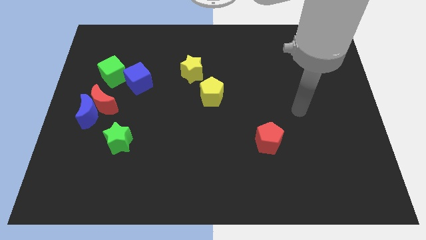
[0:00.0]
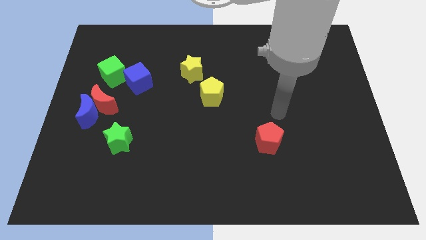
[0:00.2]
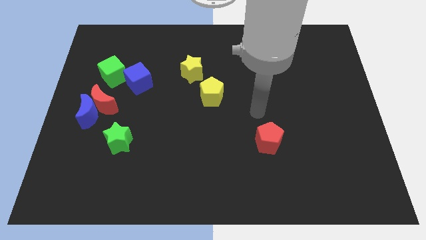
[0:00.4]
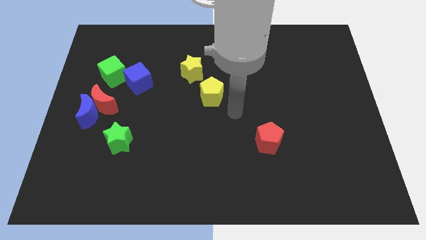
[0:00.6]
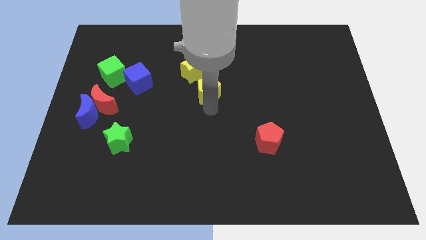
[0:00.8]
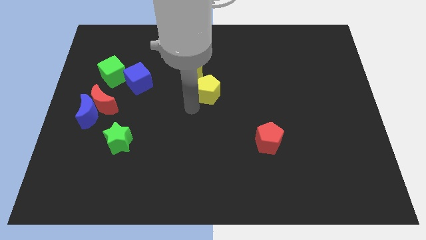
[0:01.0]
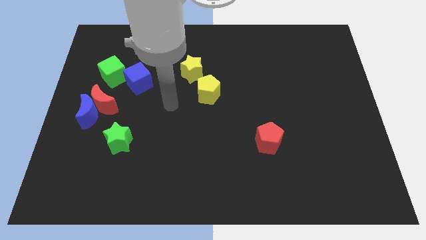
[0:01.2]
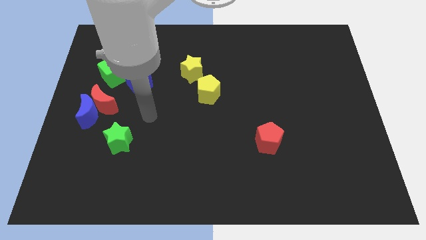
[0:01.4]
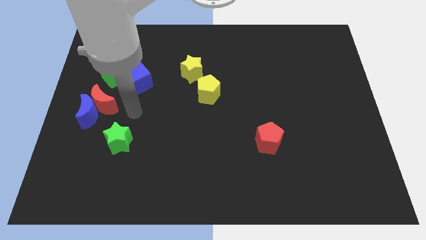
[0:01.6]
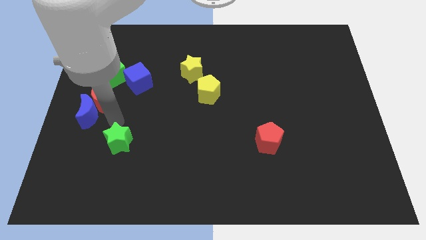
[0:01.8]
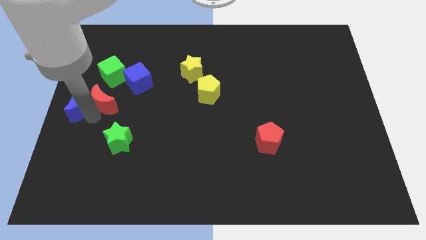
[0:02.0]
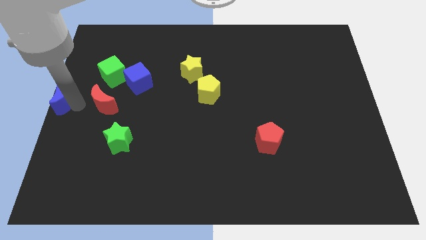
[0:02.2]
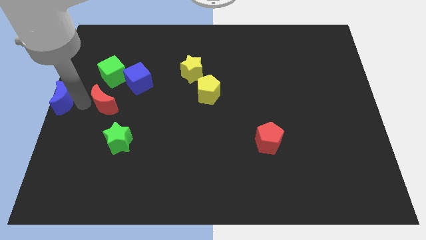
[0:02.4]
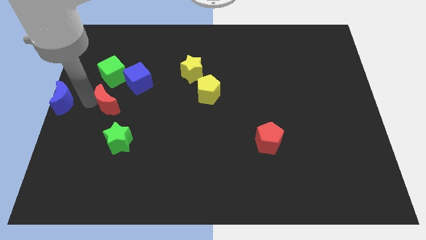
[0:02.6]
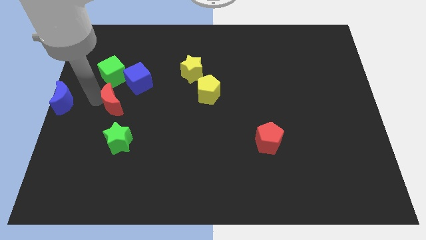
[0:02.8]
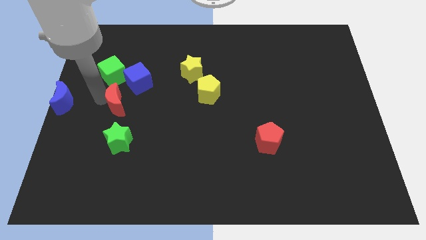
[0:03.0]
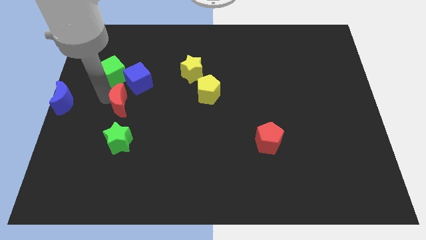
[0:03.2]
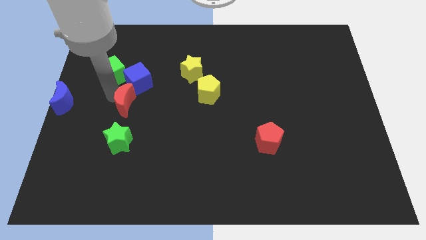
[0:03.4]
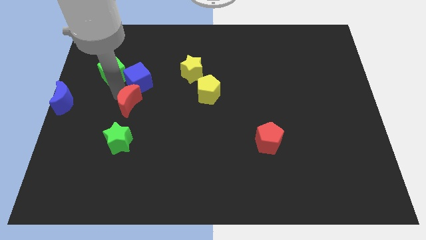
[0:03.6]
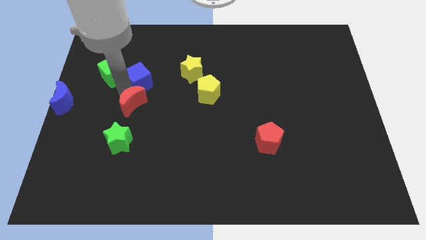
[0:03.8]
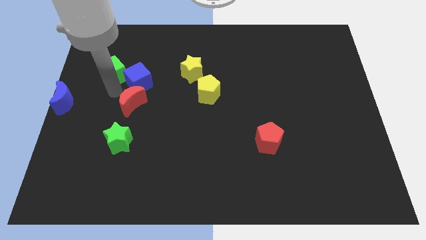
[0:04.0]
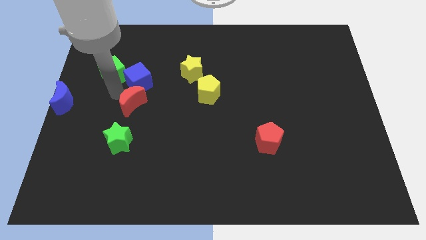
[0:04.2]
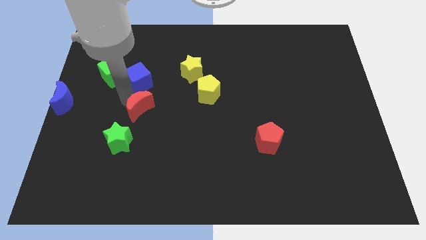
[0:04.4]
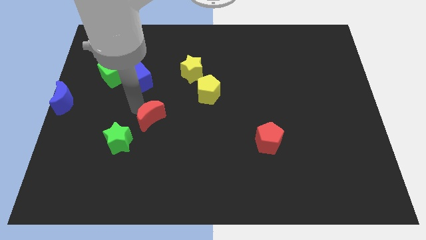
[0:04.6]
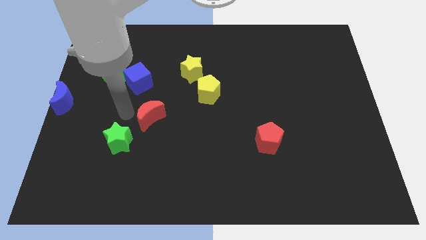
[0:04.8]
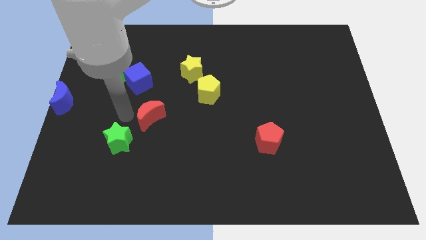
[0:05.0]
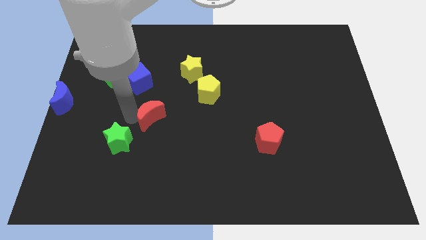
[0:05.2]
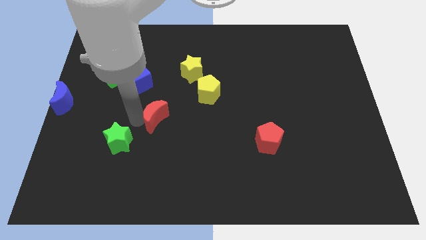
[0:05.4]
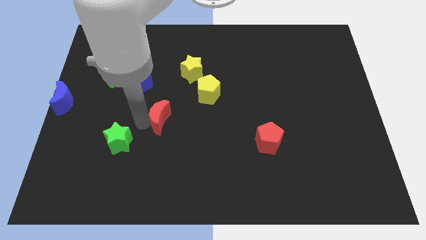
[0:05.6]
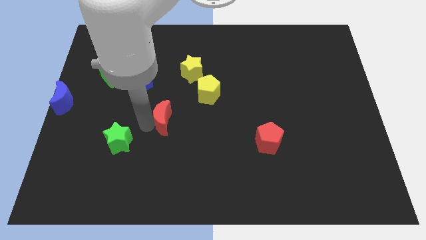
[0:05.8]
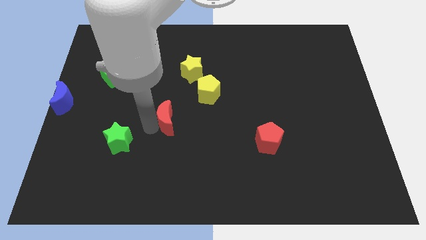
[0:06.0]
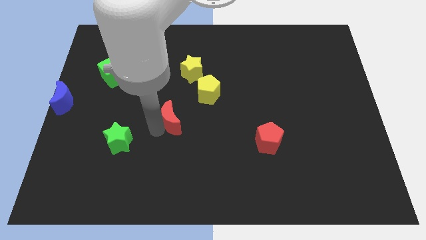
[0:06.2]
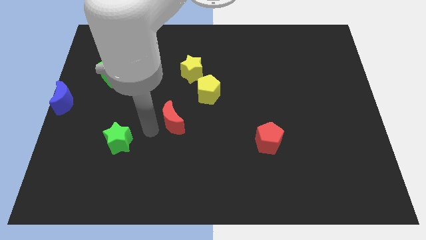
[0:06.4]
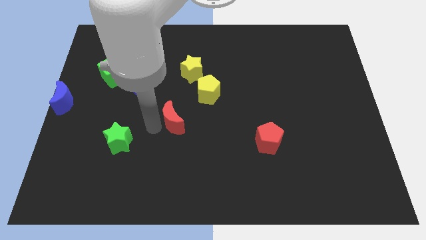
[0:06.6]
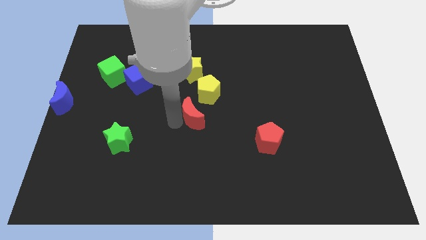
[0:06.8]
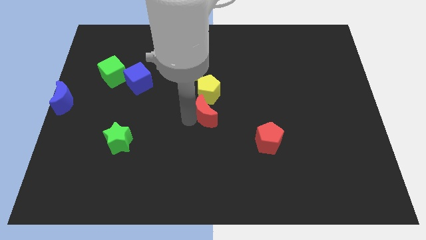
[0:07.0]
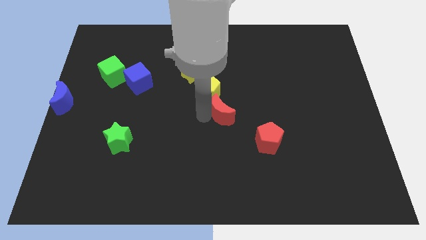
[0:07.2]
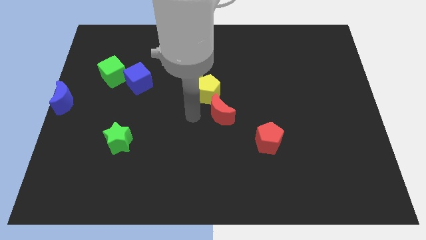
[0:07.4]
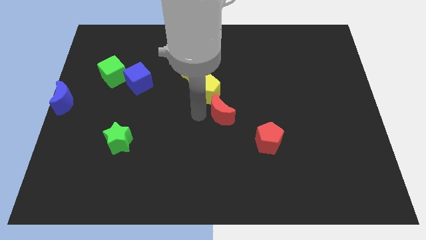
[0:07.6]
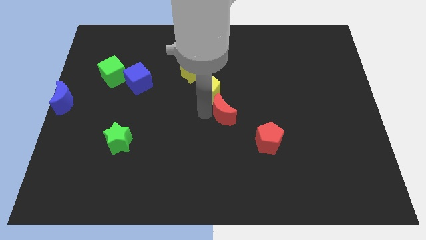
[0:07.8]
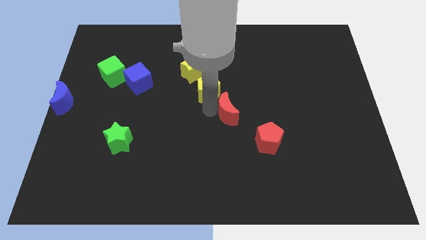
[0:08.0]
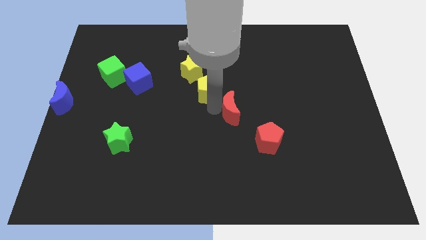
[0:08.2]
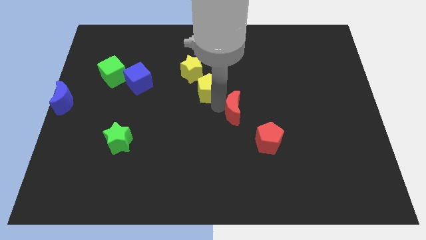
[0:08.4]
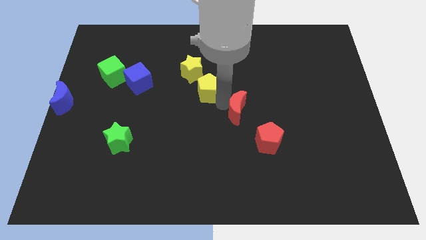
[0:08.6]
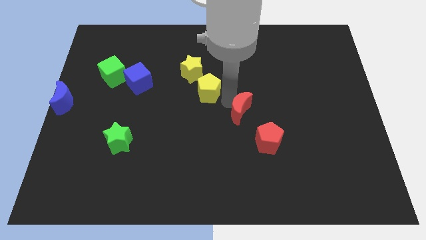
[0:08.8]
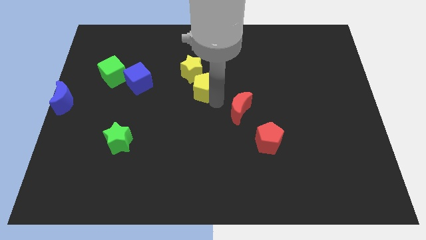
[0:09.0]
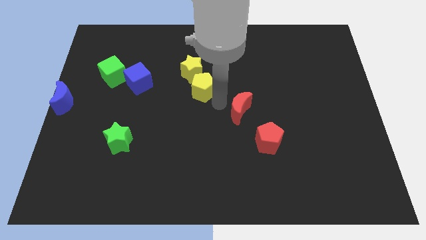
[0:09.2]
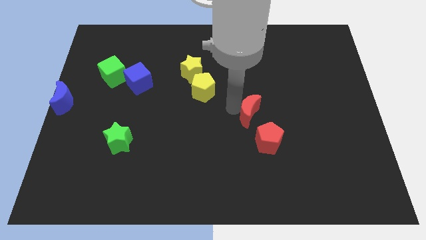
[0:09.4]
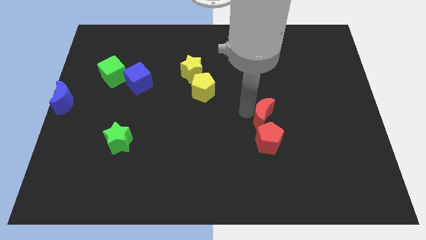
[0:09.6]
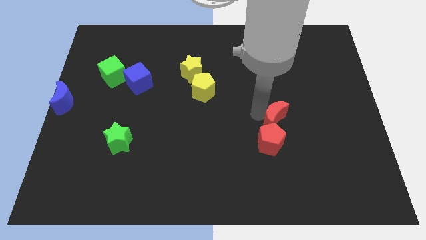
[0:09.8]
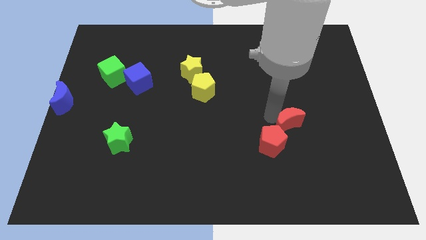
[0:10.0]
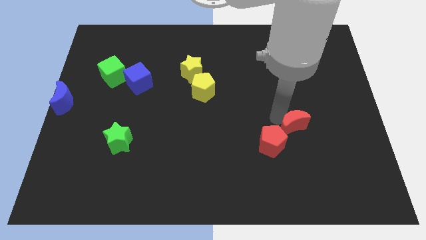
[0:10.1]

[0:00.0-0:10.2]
push the red moon to the right of the red pentagon

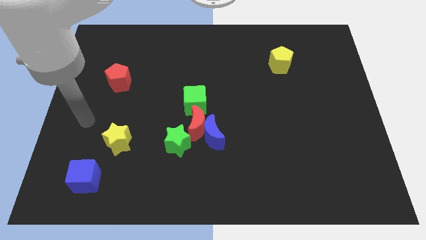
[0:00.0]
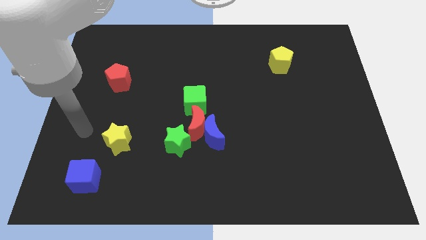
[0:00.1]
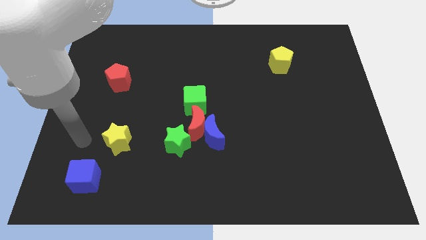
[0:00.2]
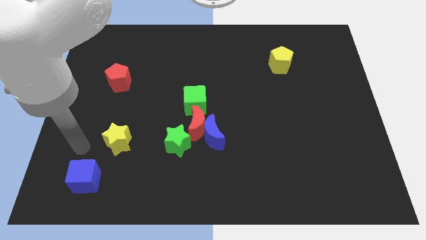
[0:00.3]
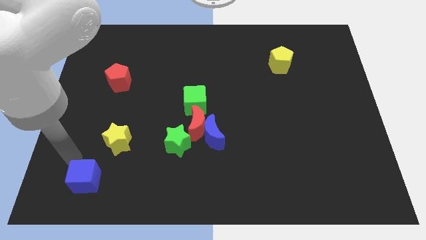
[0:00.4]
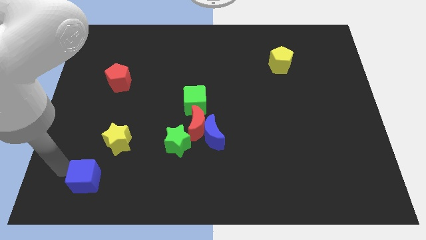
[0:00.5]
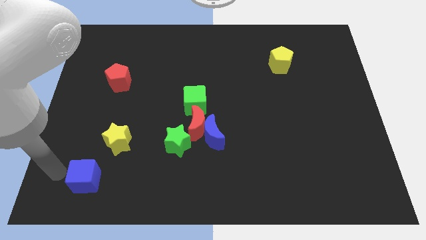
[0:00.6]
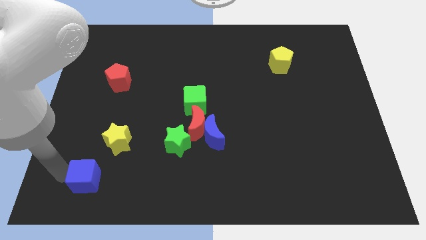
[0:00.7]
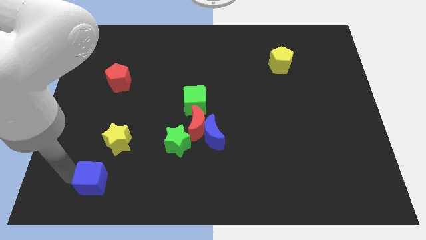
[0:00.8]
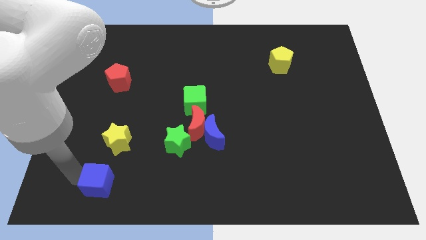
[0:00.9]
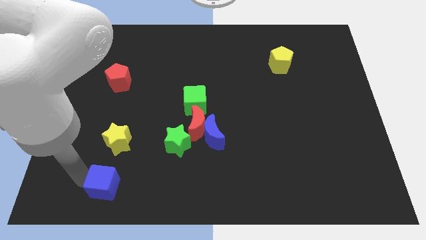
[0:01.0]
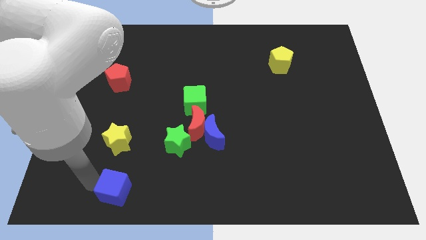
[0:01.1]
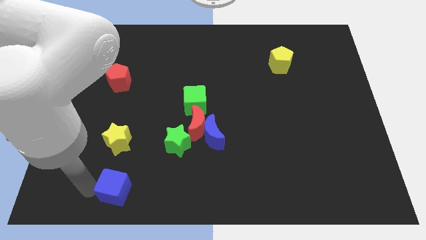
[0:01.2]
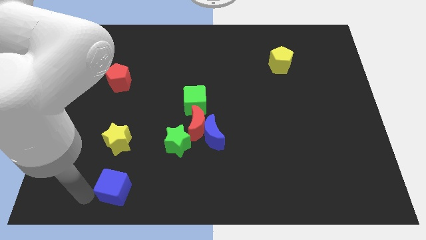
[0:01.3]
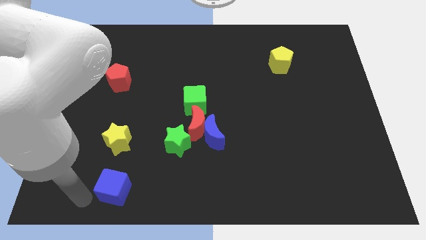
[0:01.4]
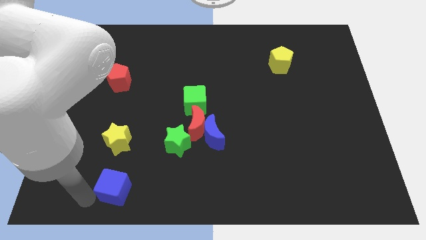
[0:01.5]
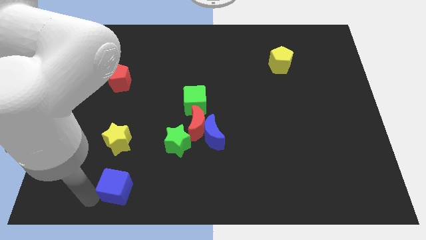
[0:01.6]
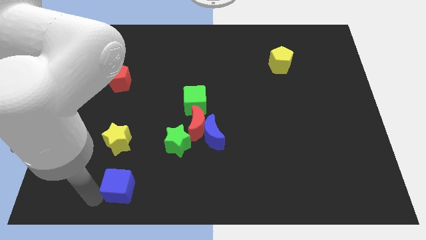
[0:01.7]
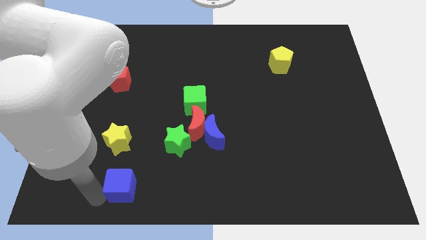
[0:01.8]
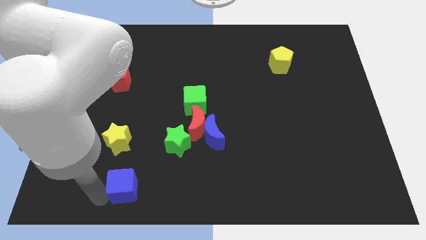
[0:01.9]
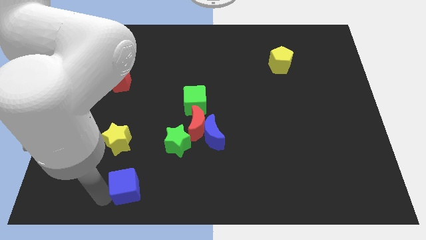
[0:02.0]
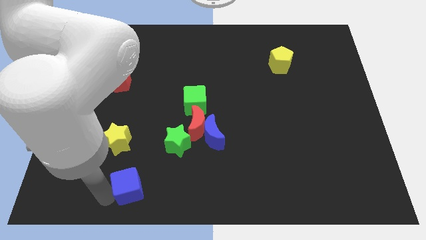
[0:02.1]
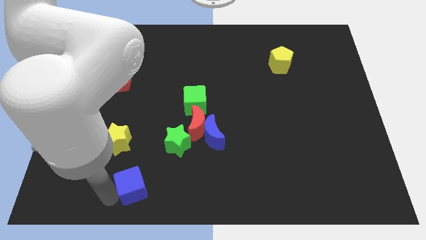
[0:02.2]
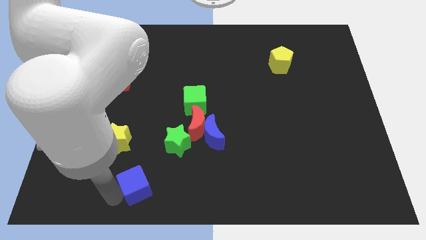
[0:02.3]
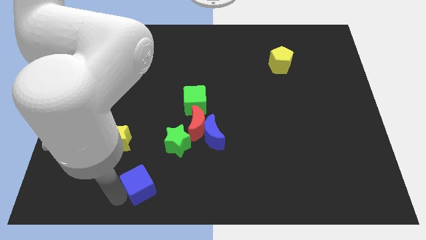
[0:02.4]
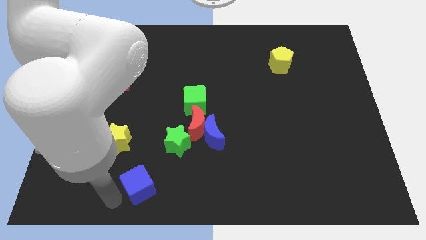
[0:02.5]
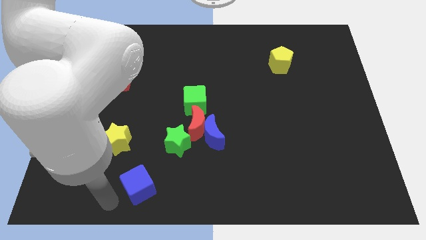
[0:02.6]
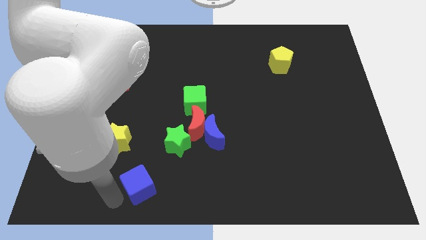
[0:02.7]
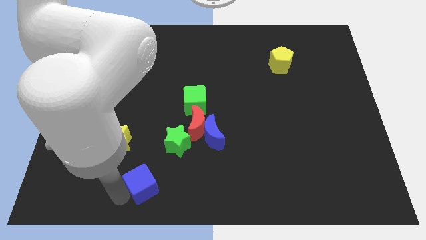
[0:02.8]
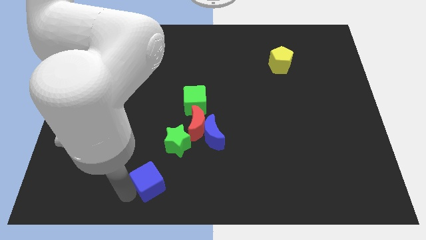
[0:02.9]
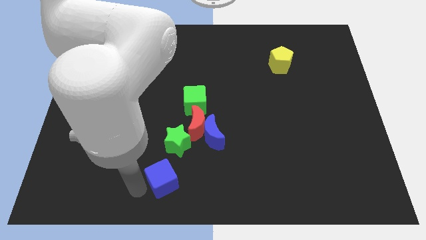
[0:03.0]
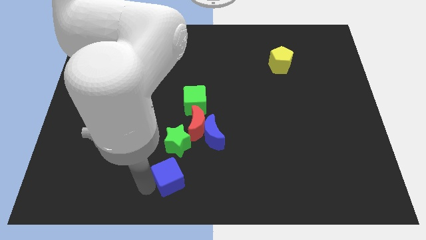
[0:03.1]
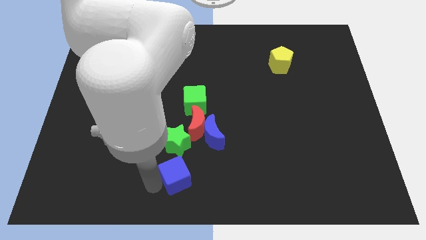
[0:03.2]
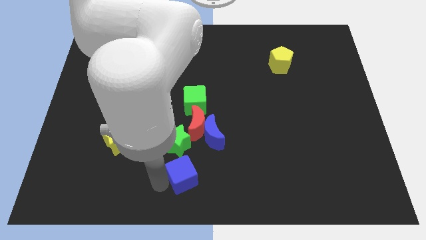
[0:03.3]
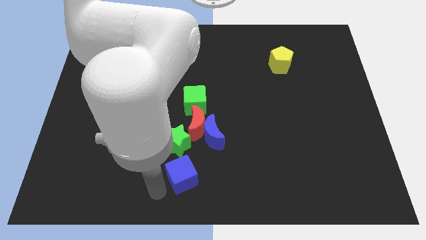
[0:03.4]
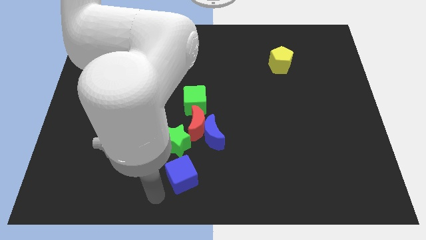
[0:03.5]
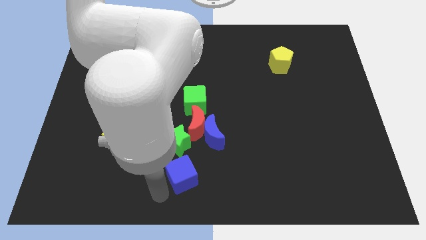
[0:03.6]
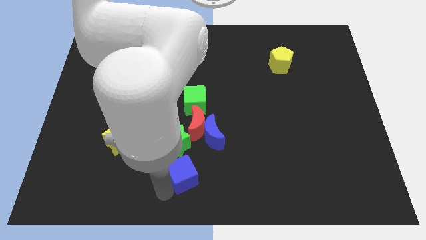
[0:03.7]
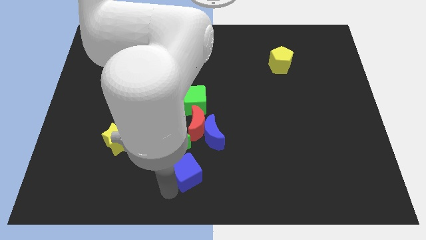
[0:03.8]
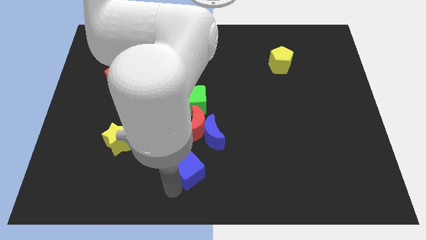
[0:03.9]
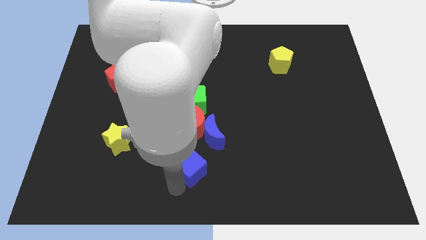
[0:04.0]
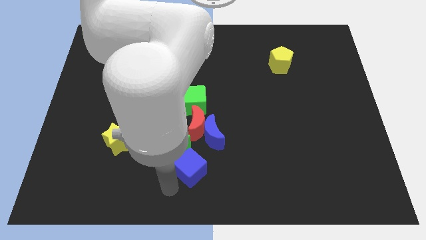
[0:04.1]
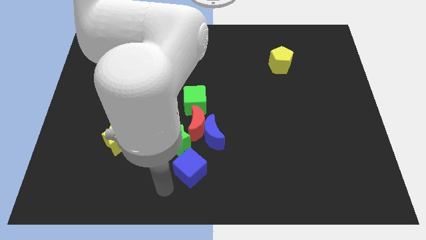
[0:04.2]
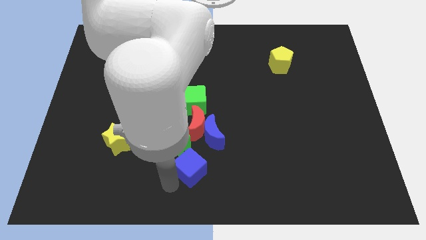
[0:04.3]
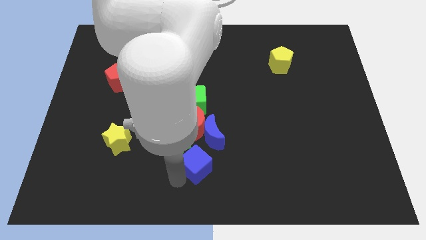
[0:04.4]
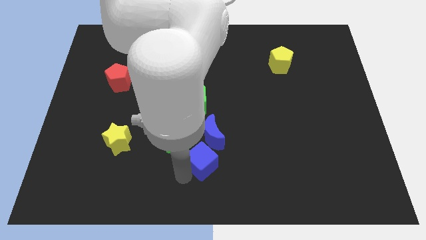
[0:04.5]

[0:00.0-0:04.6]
put the blue cube right of the green star
